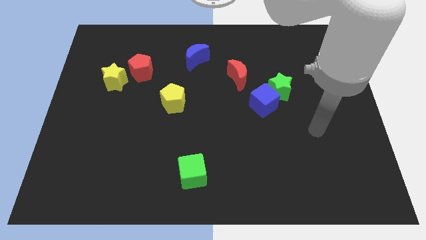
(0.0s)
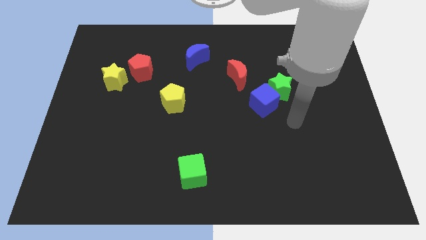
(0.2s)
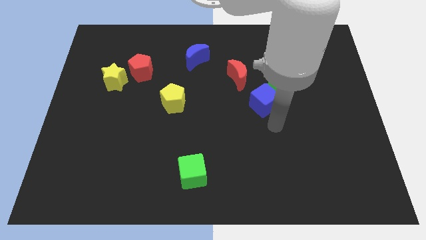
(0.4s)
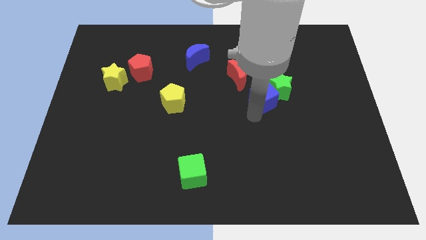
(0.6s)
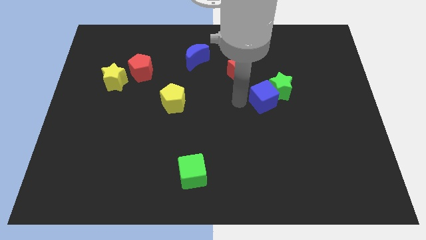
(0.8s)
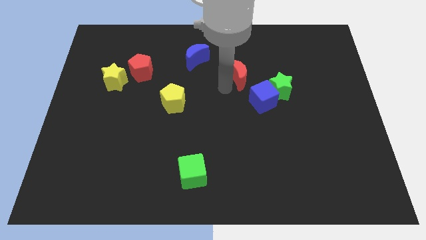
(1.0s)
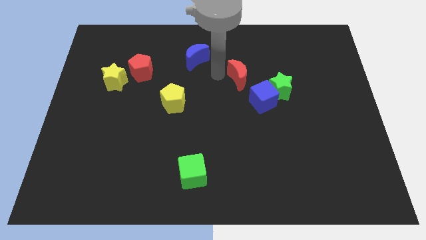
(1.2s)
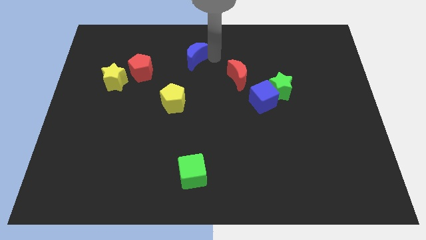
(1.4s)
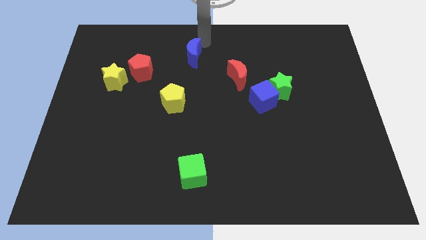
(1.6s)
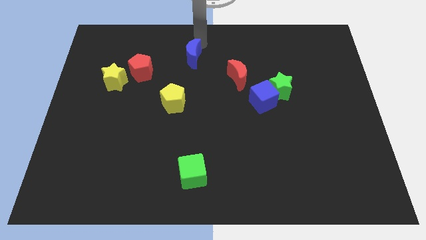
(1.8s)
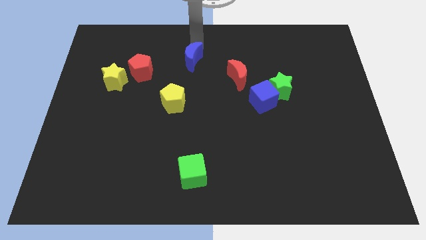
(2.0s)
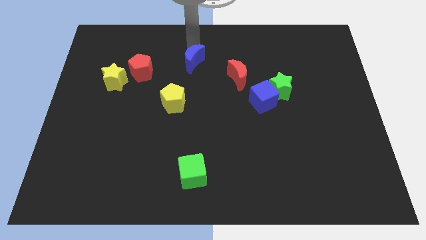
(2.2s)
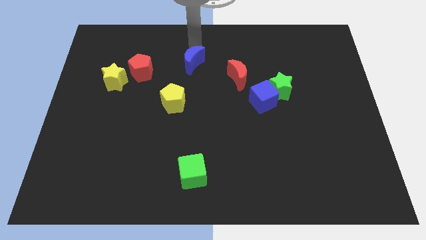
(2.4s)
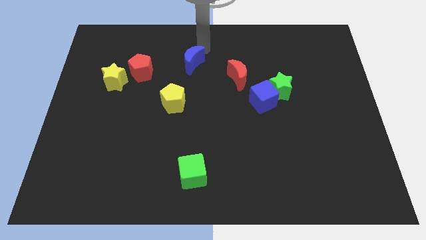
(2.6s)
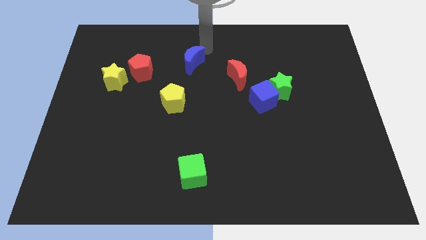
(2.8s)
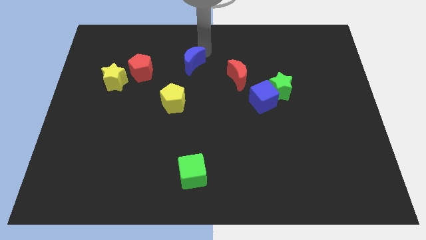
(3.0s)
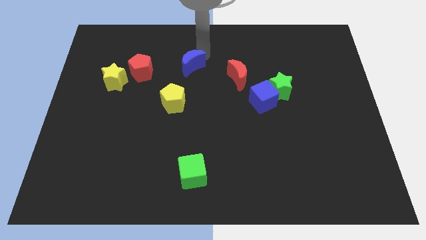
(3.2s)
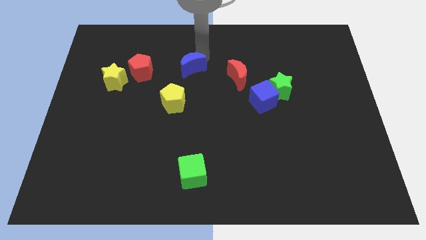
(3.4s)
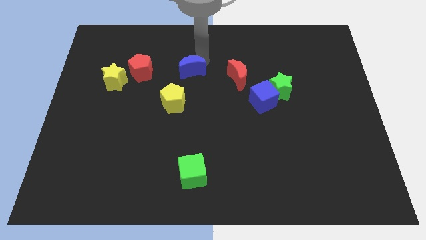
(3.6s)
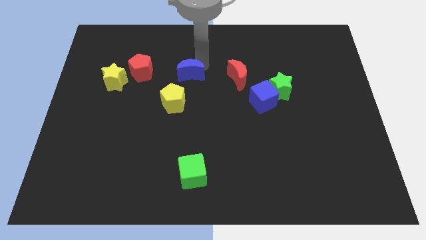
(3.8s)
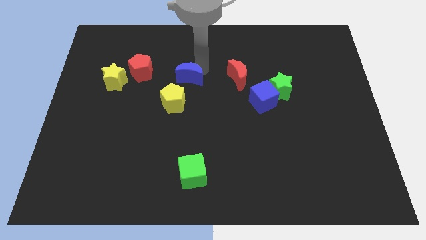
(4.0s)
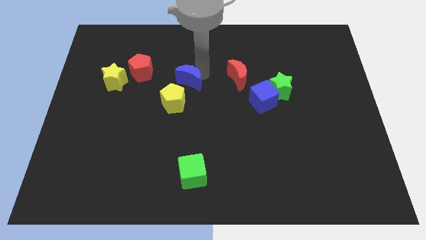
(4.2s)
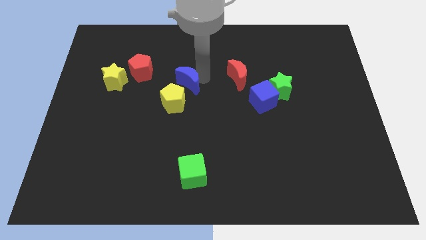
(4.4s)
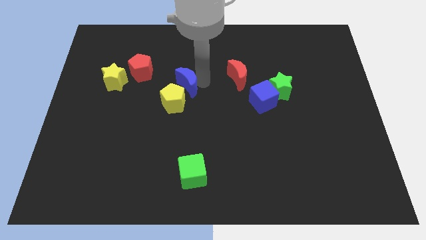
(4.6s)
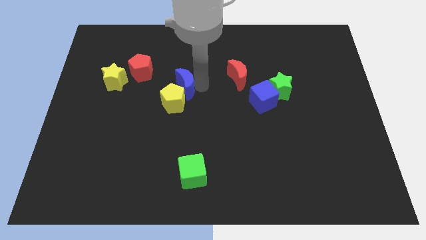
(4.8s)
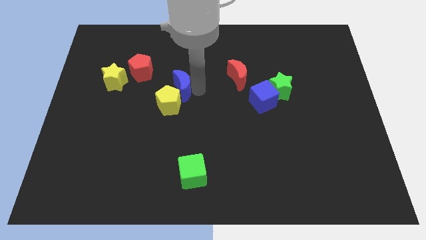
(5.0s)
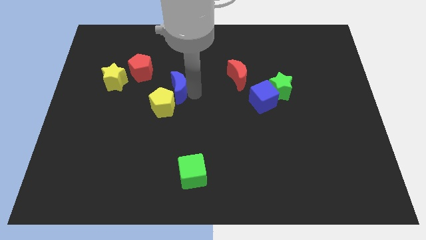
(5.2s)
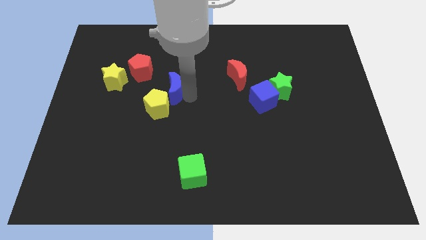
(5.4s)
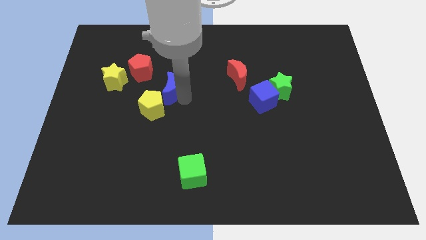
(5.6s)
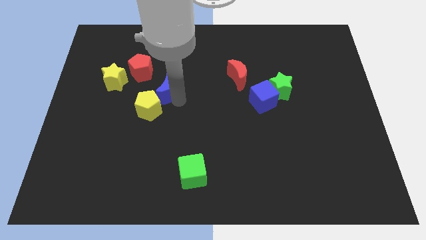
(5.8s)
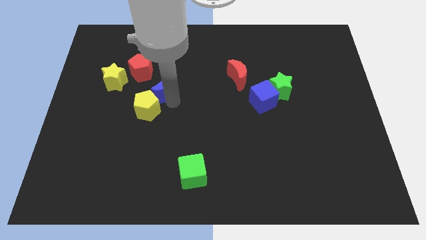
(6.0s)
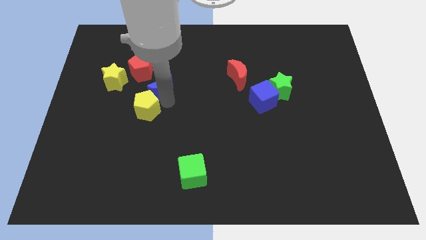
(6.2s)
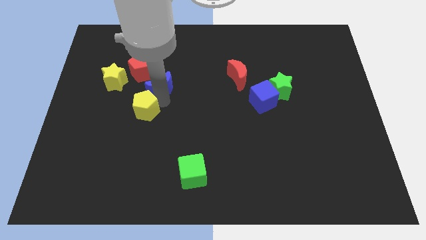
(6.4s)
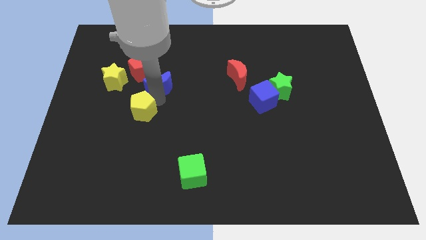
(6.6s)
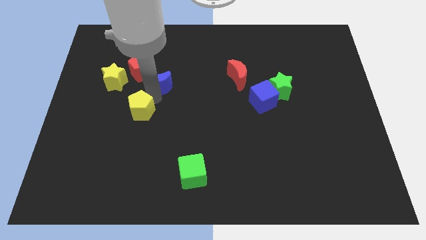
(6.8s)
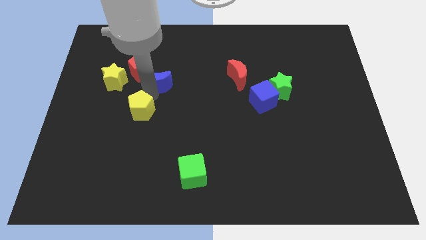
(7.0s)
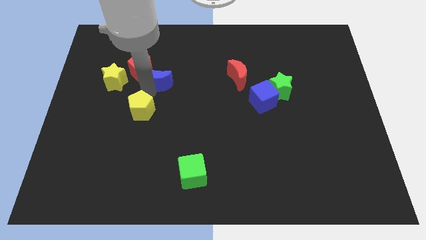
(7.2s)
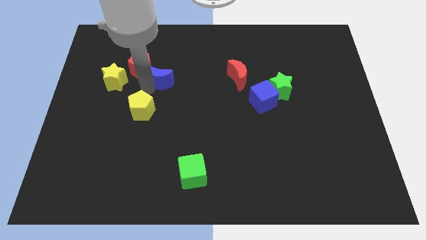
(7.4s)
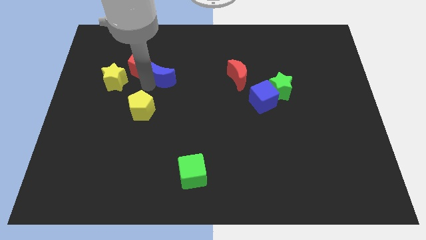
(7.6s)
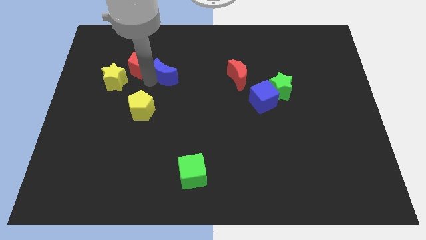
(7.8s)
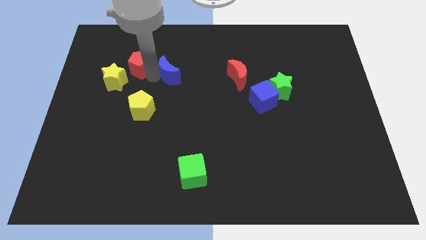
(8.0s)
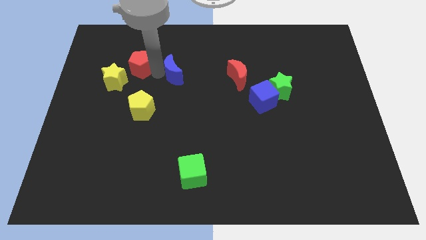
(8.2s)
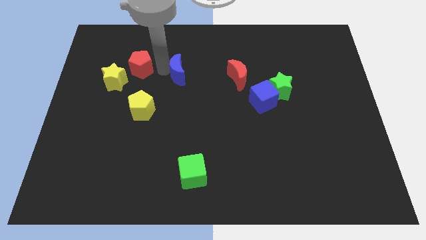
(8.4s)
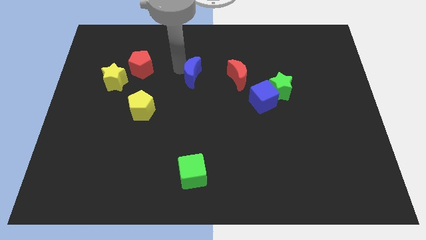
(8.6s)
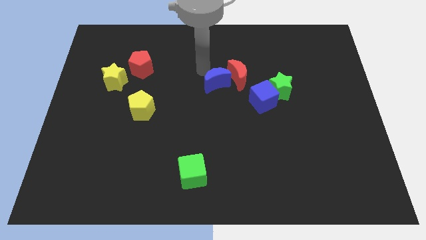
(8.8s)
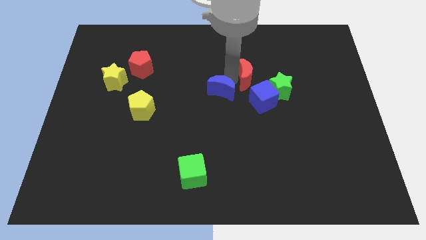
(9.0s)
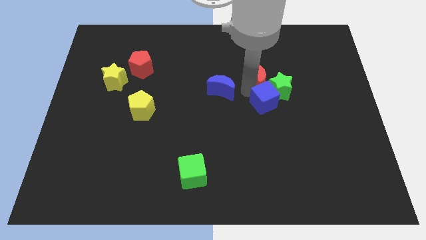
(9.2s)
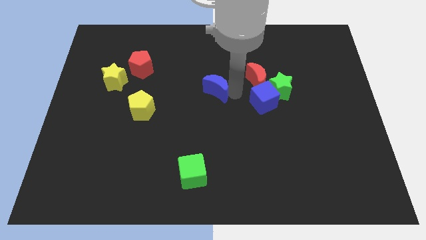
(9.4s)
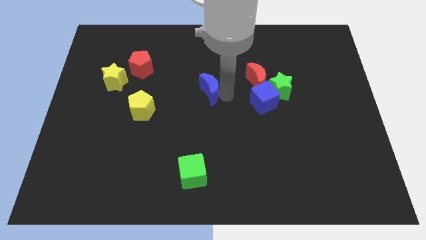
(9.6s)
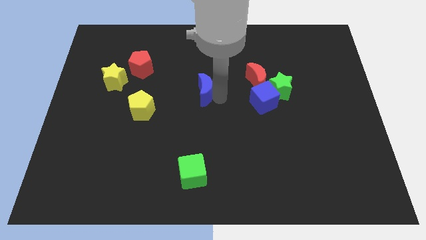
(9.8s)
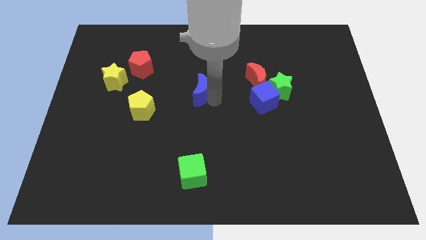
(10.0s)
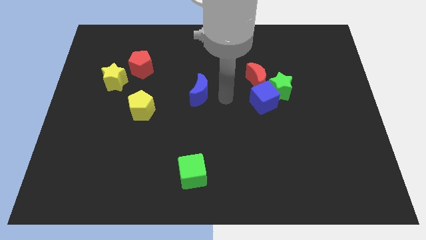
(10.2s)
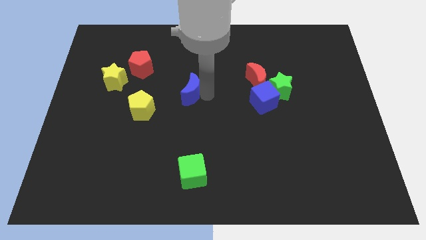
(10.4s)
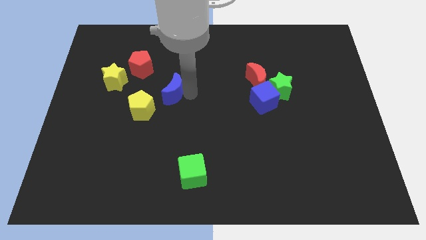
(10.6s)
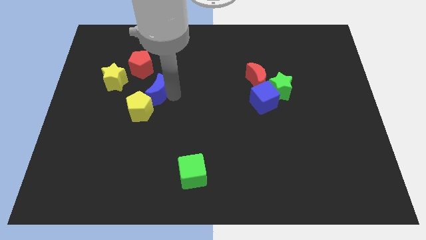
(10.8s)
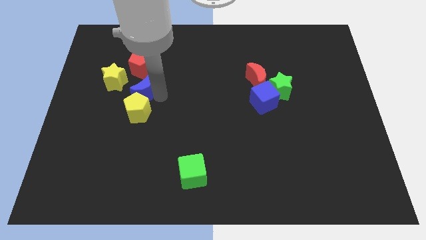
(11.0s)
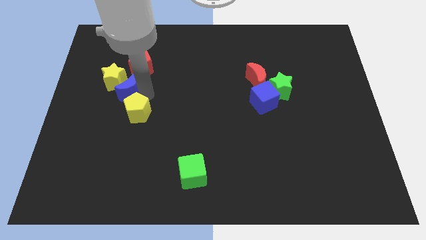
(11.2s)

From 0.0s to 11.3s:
slide the blue moon close to the yellow star

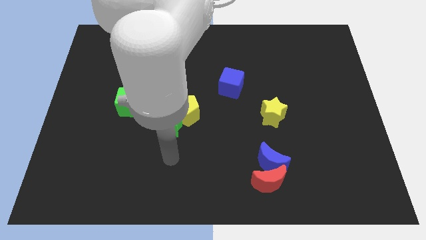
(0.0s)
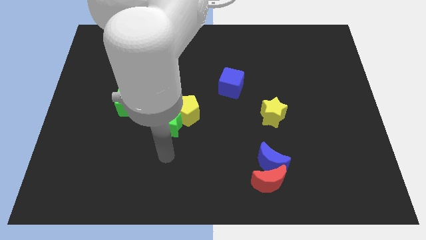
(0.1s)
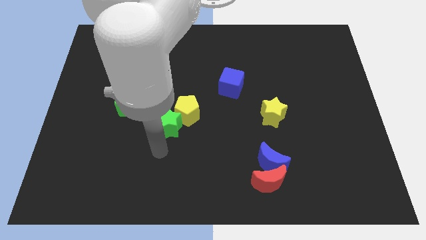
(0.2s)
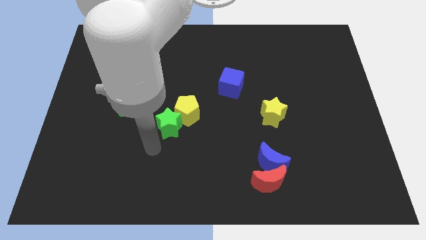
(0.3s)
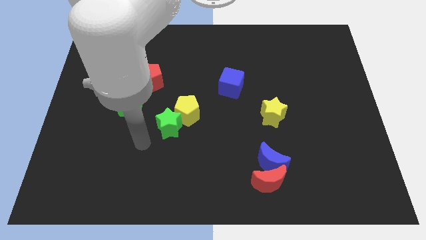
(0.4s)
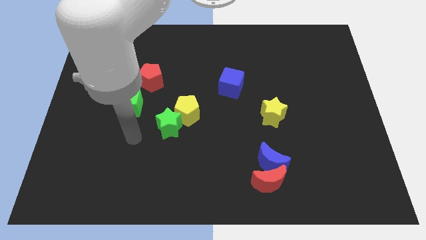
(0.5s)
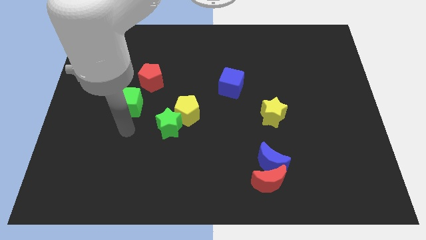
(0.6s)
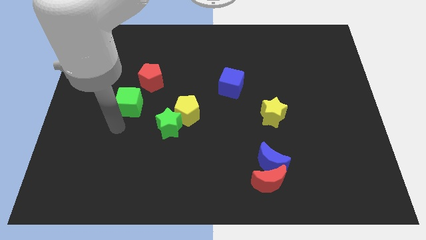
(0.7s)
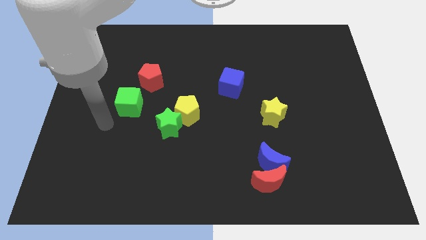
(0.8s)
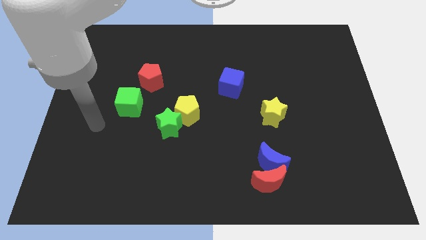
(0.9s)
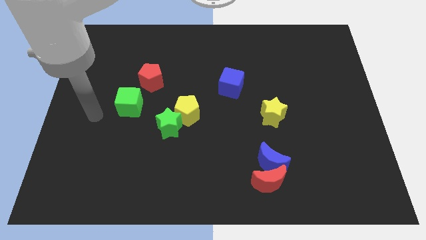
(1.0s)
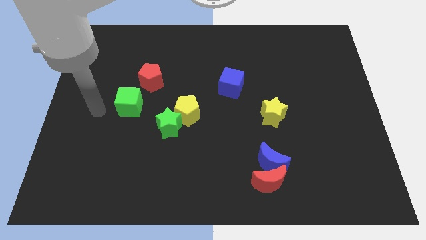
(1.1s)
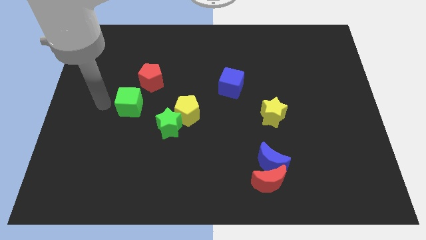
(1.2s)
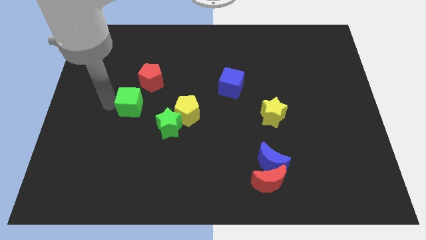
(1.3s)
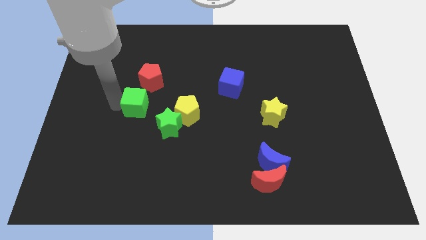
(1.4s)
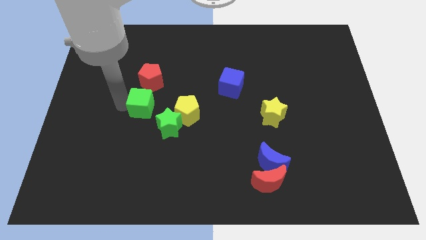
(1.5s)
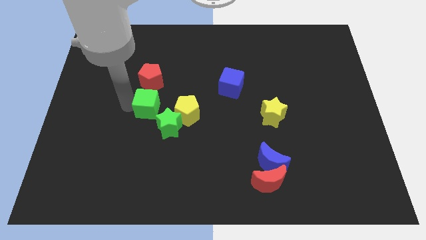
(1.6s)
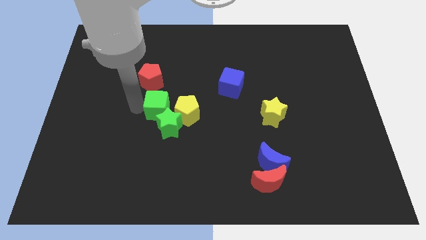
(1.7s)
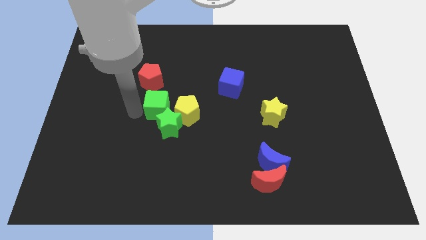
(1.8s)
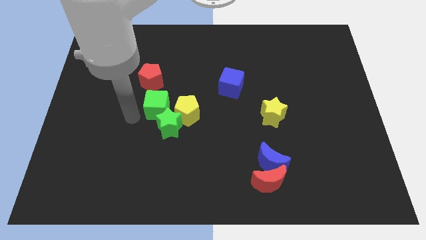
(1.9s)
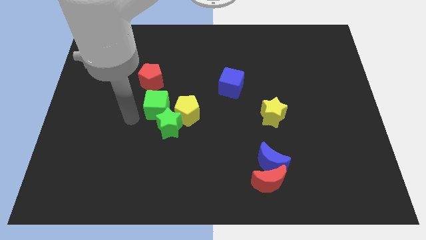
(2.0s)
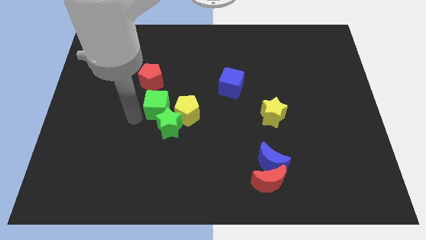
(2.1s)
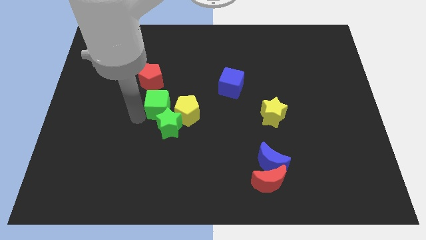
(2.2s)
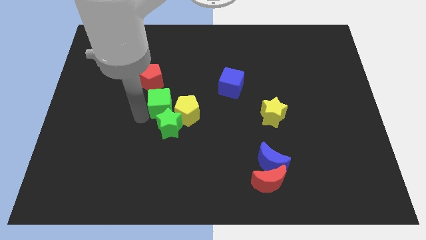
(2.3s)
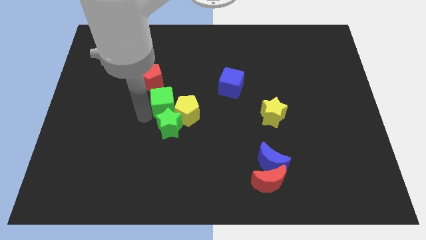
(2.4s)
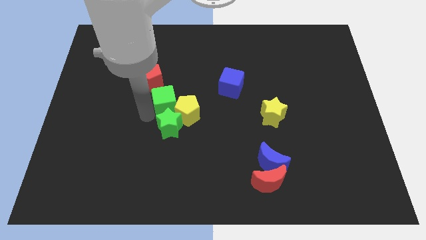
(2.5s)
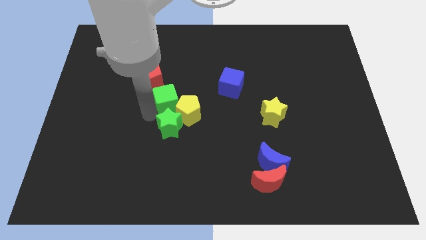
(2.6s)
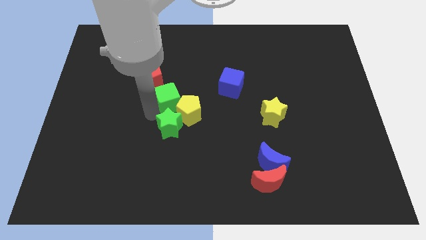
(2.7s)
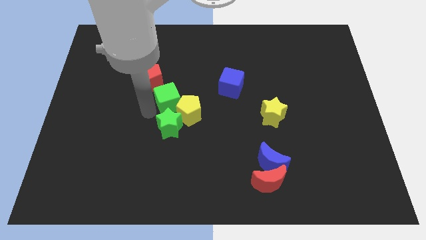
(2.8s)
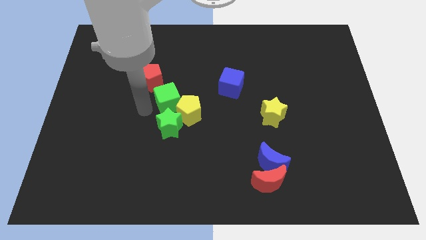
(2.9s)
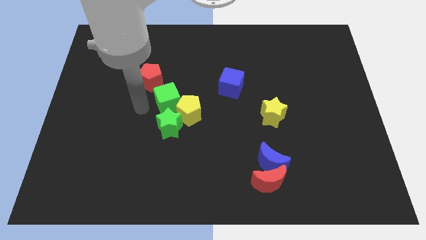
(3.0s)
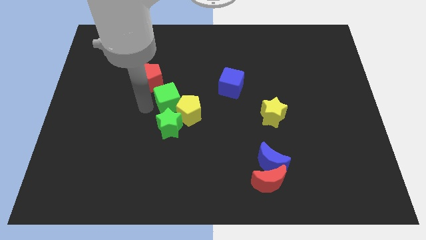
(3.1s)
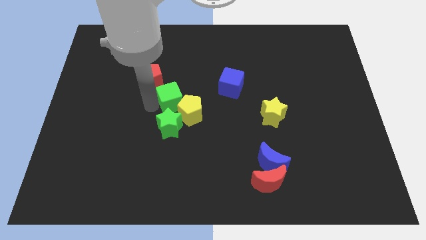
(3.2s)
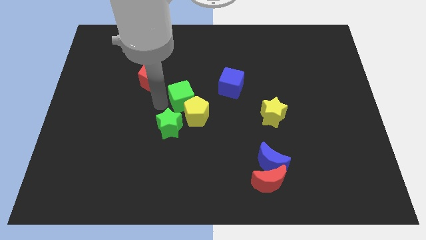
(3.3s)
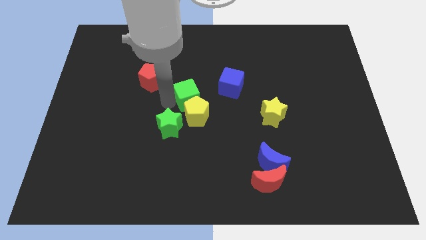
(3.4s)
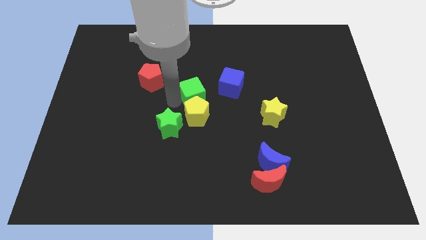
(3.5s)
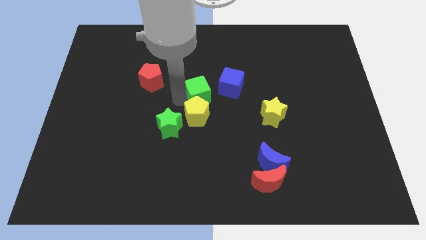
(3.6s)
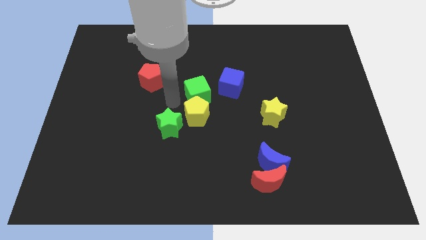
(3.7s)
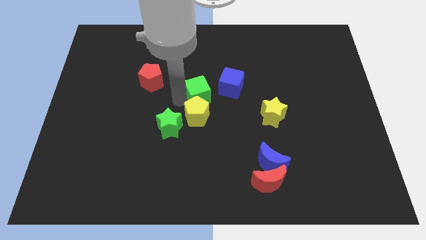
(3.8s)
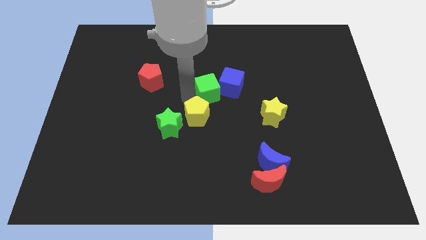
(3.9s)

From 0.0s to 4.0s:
push the green cube to the blue cube
